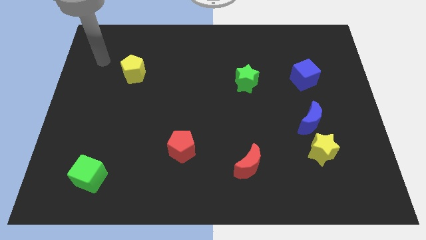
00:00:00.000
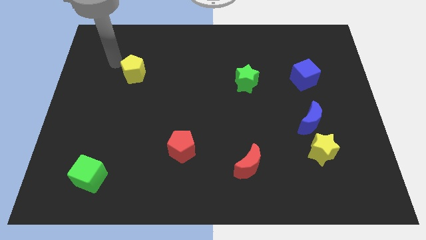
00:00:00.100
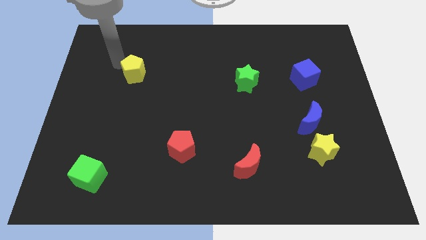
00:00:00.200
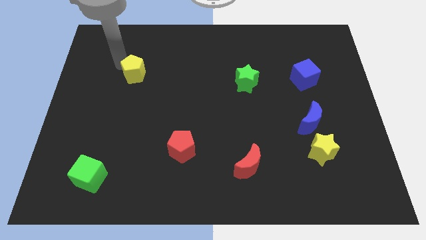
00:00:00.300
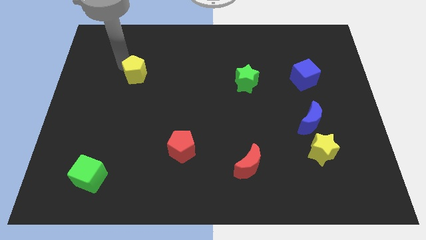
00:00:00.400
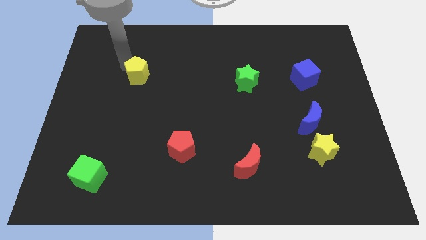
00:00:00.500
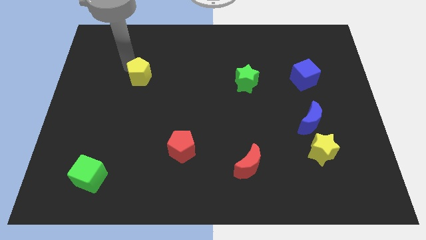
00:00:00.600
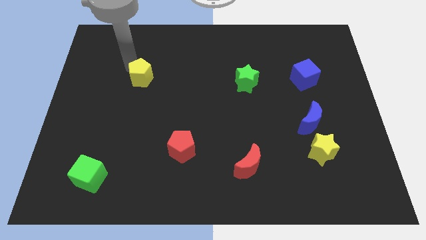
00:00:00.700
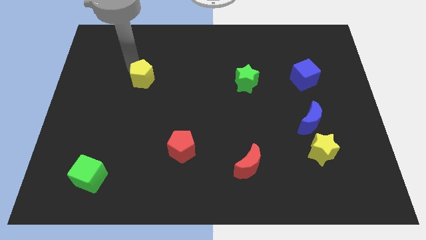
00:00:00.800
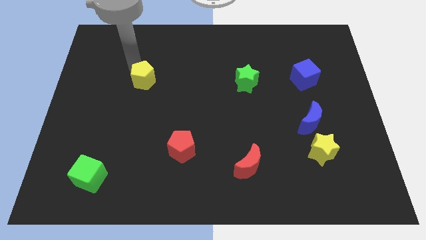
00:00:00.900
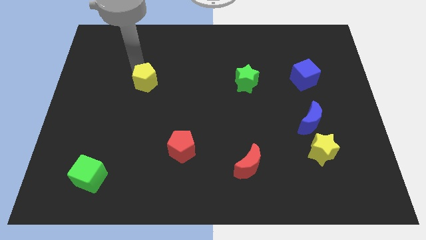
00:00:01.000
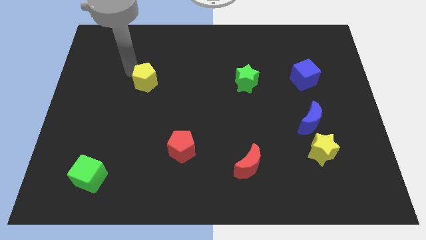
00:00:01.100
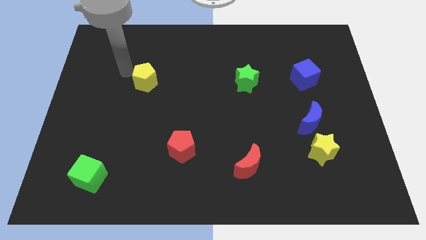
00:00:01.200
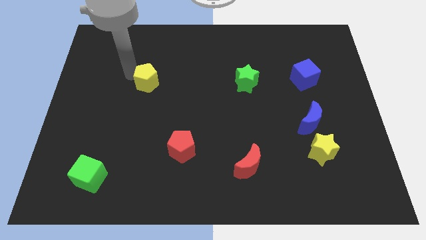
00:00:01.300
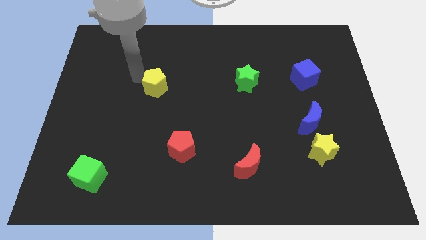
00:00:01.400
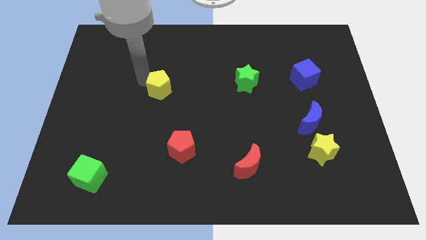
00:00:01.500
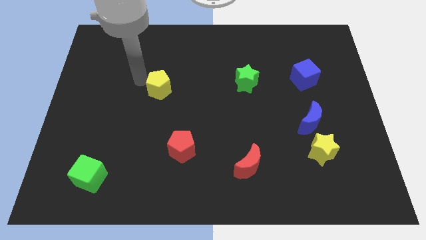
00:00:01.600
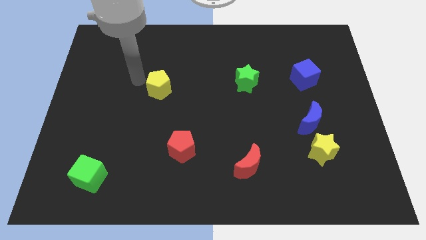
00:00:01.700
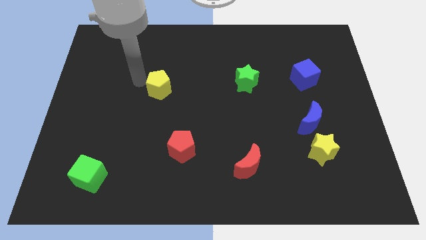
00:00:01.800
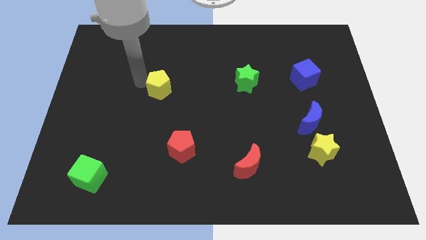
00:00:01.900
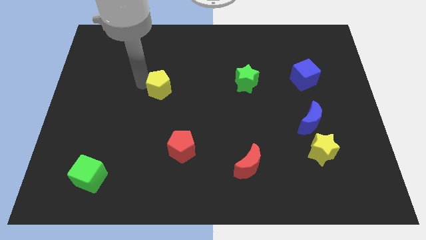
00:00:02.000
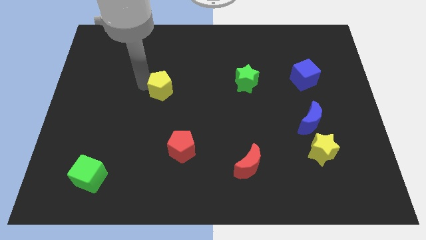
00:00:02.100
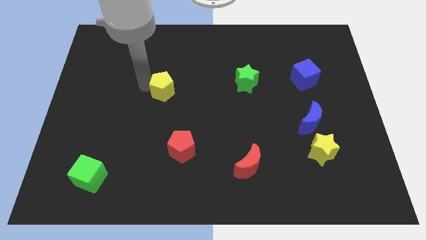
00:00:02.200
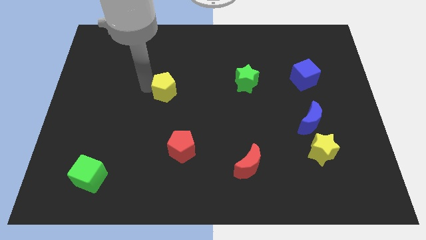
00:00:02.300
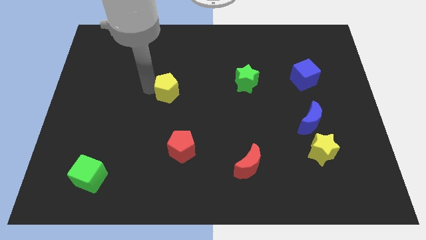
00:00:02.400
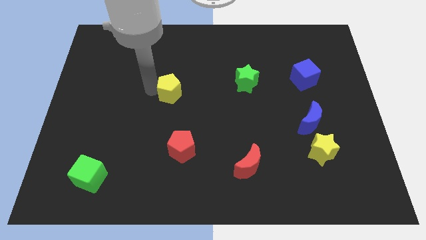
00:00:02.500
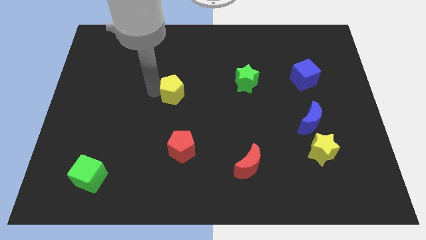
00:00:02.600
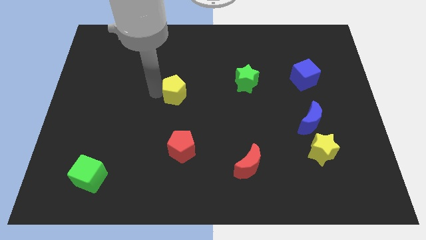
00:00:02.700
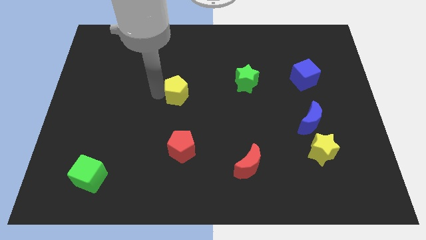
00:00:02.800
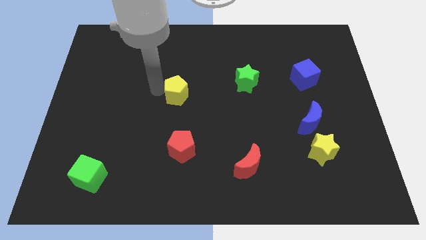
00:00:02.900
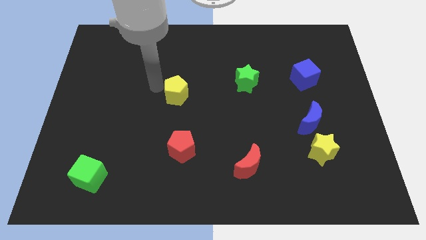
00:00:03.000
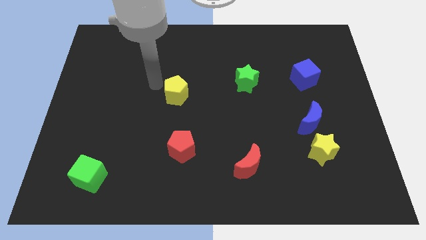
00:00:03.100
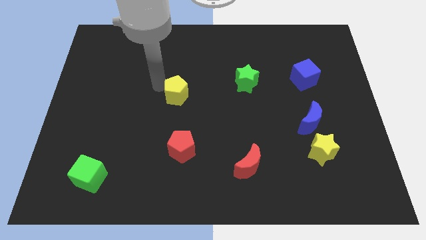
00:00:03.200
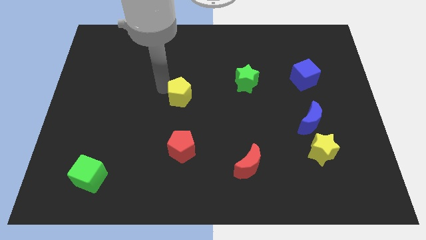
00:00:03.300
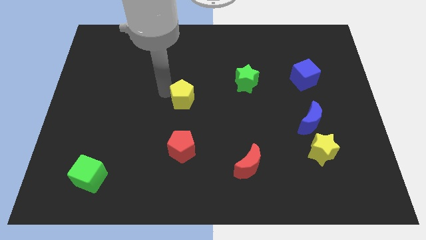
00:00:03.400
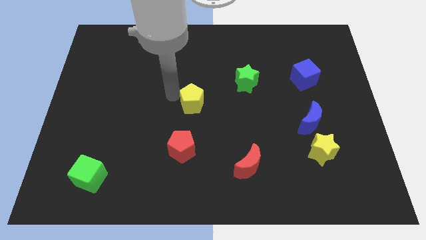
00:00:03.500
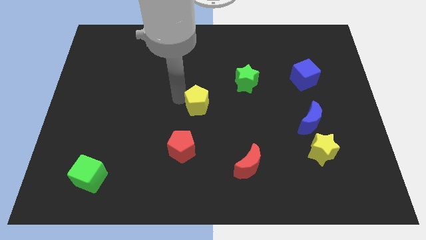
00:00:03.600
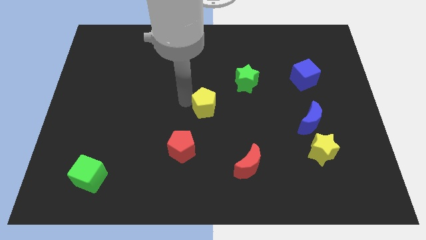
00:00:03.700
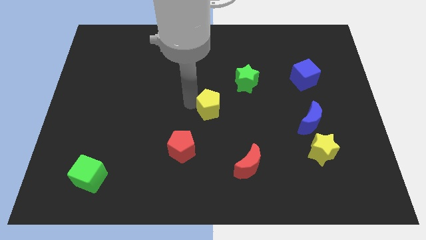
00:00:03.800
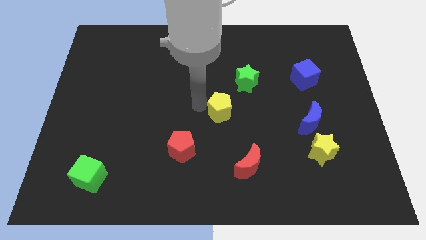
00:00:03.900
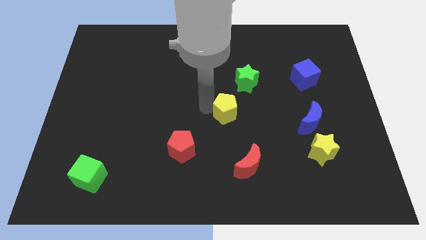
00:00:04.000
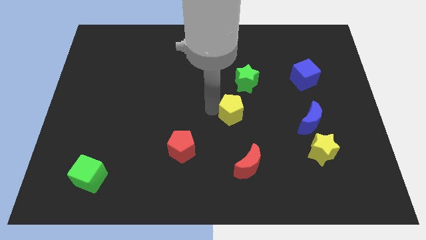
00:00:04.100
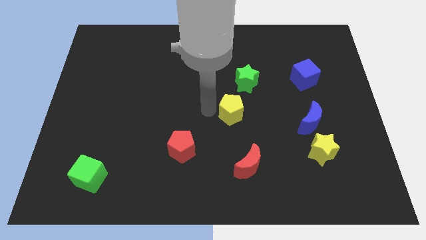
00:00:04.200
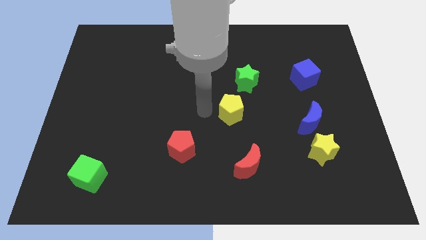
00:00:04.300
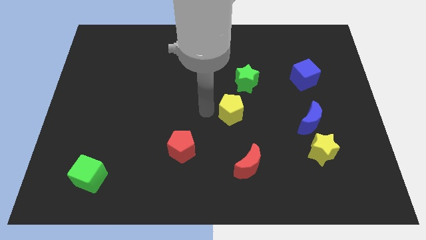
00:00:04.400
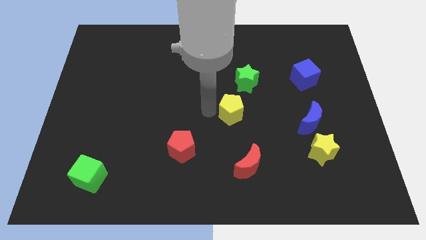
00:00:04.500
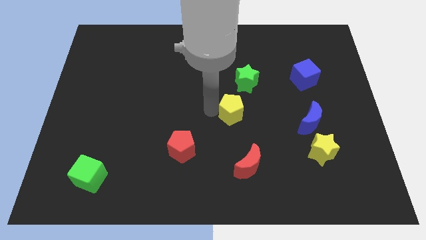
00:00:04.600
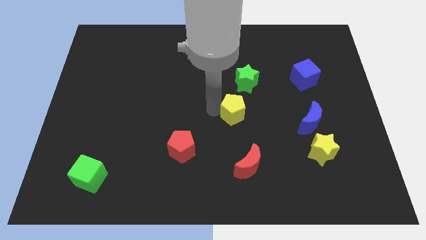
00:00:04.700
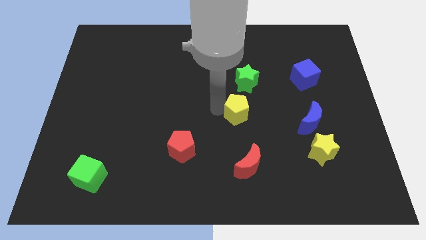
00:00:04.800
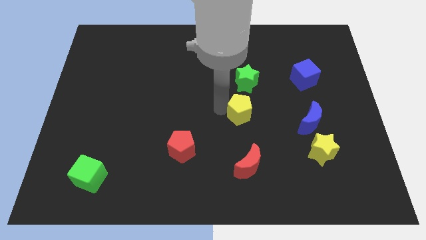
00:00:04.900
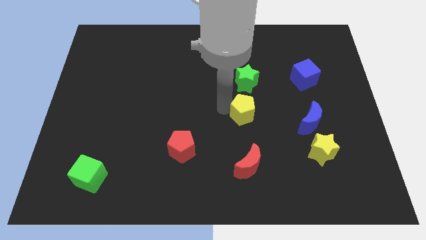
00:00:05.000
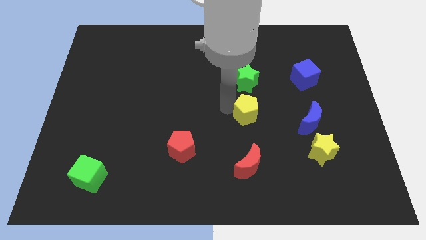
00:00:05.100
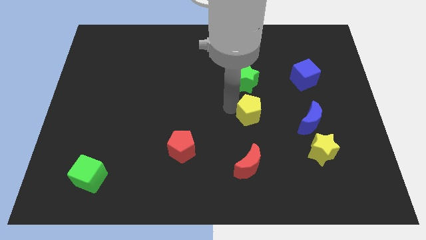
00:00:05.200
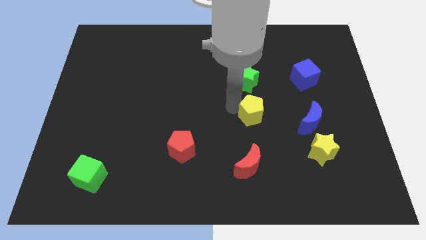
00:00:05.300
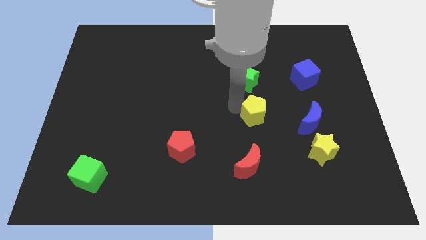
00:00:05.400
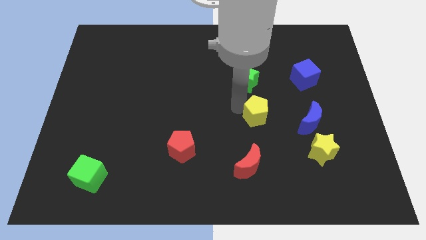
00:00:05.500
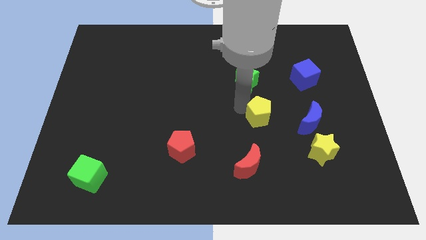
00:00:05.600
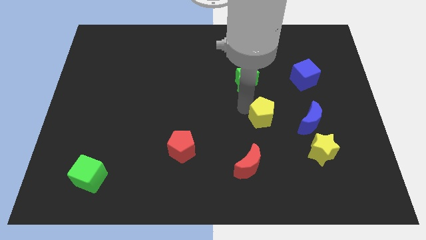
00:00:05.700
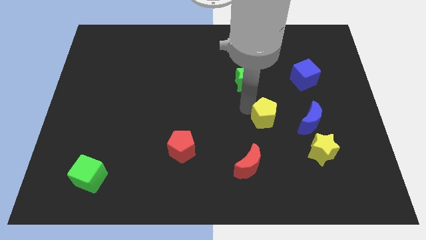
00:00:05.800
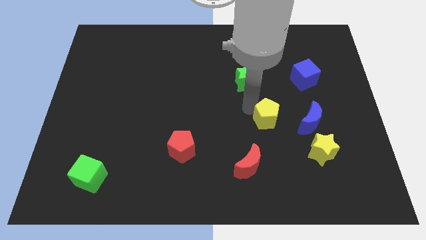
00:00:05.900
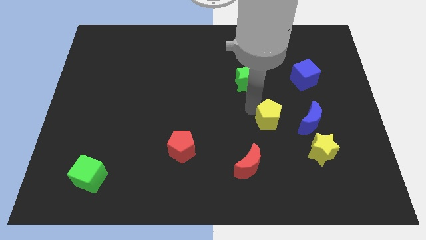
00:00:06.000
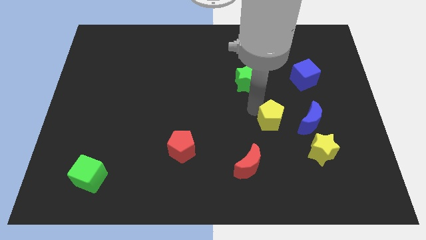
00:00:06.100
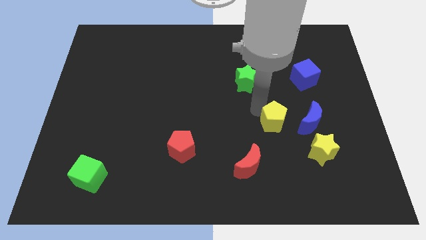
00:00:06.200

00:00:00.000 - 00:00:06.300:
push the yellow pentagon diagonally up and to the left of the yellow star
